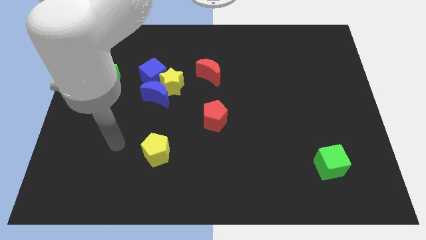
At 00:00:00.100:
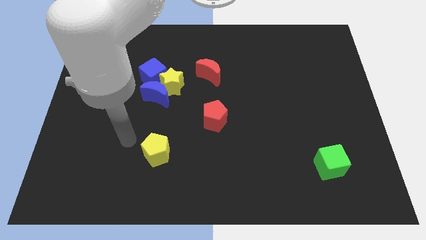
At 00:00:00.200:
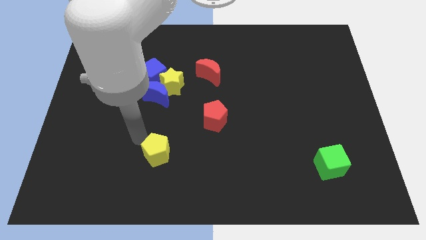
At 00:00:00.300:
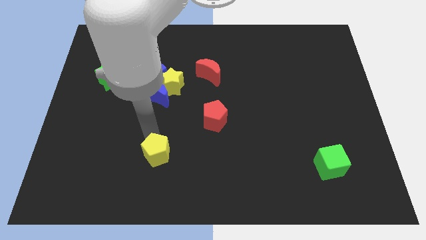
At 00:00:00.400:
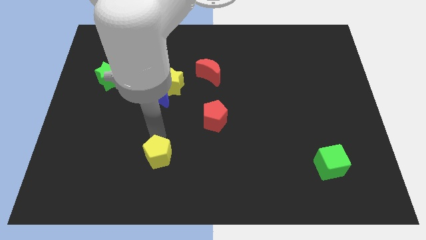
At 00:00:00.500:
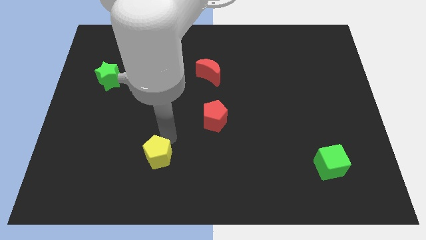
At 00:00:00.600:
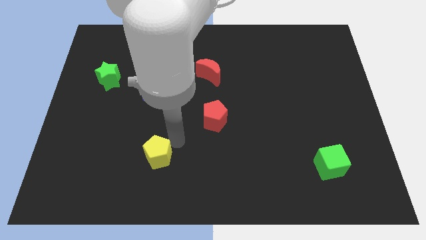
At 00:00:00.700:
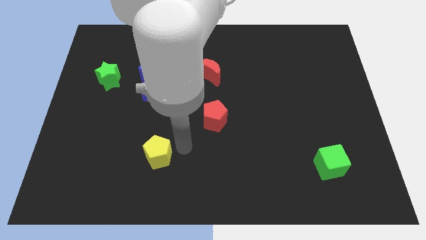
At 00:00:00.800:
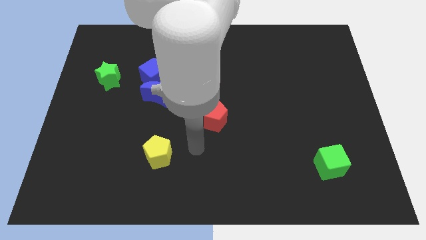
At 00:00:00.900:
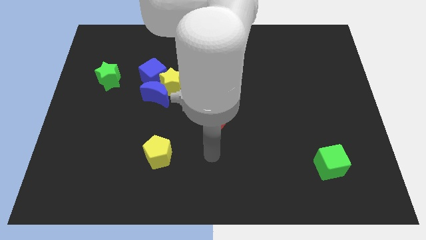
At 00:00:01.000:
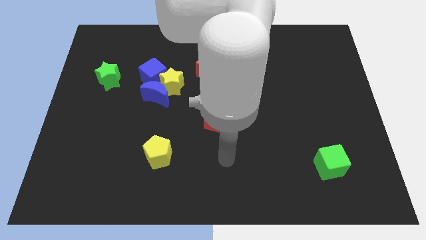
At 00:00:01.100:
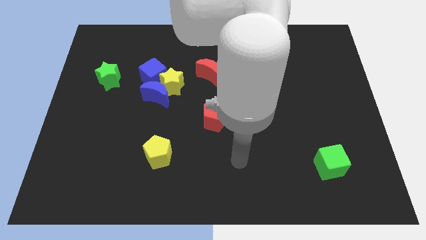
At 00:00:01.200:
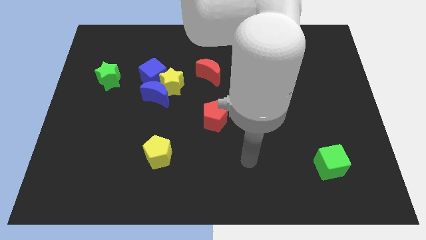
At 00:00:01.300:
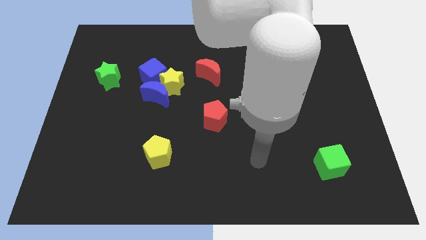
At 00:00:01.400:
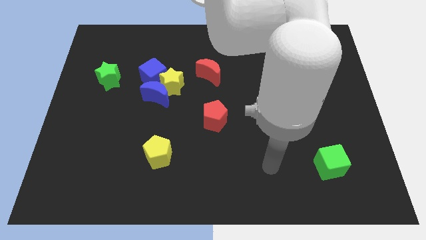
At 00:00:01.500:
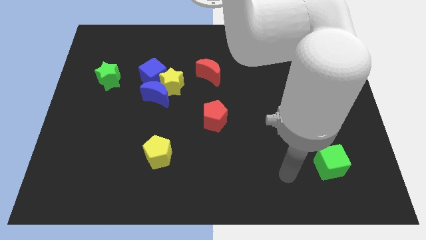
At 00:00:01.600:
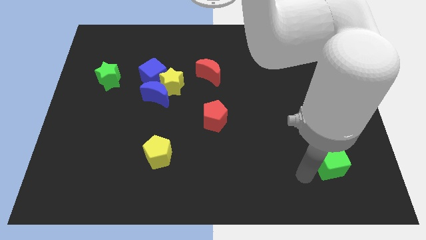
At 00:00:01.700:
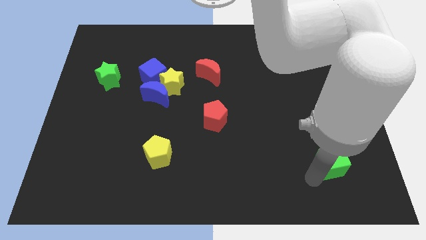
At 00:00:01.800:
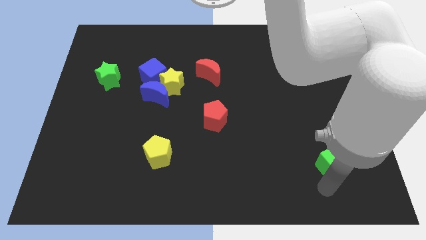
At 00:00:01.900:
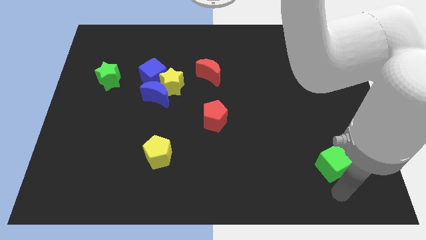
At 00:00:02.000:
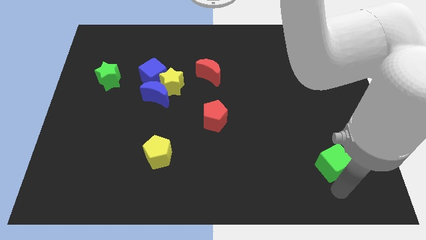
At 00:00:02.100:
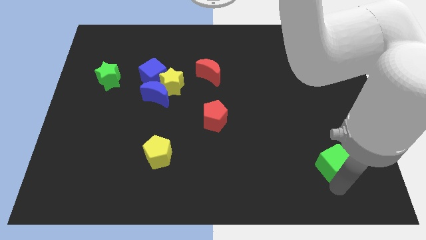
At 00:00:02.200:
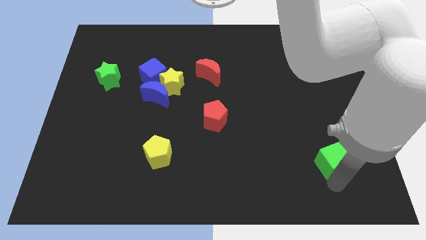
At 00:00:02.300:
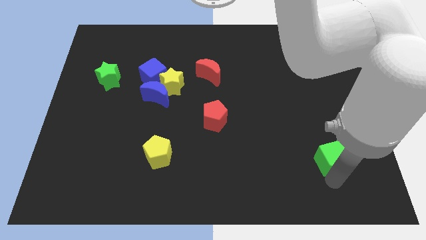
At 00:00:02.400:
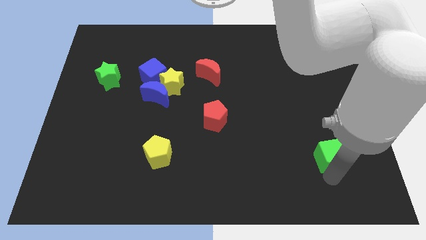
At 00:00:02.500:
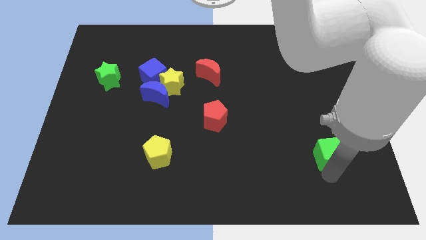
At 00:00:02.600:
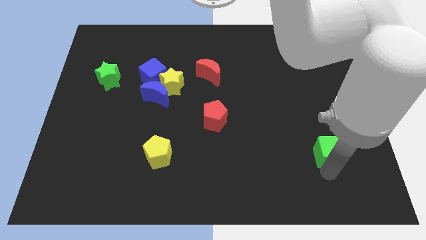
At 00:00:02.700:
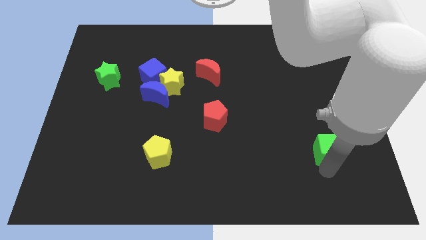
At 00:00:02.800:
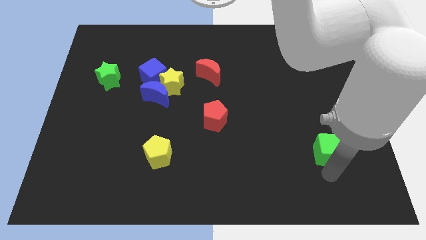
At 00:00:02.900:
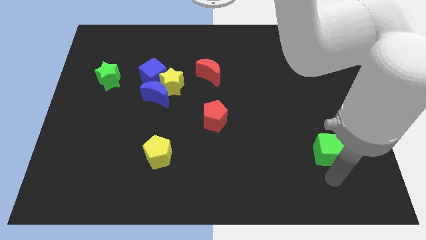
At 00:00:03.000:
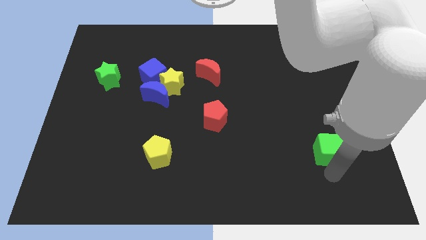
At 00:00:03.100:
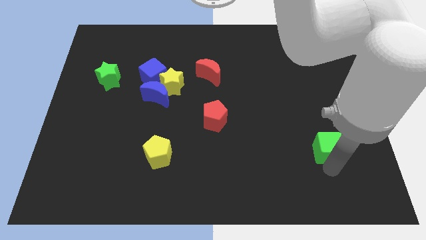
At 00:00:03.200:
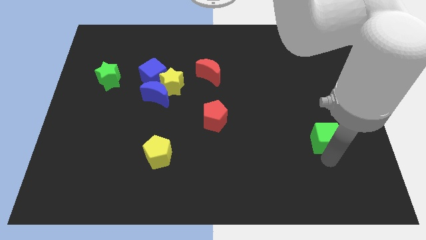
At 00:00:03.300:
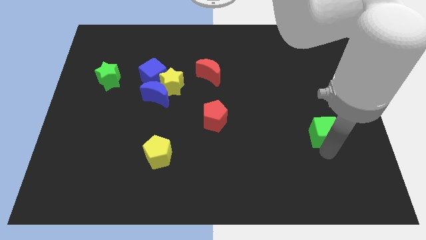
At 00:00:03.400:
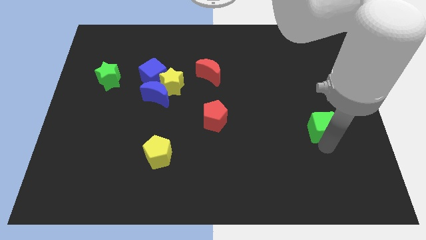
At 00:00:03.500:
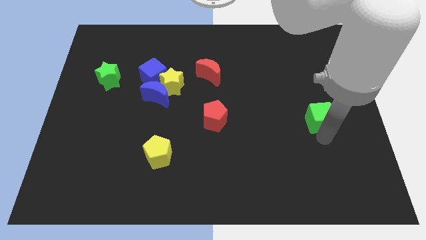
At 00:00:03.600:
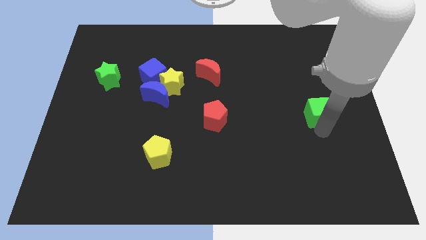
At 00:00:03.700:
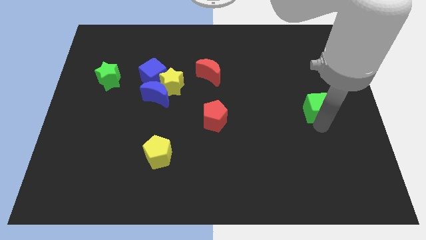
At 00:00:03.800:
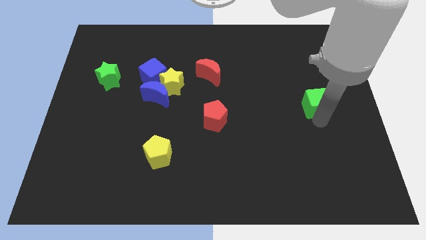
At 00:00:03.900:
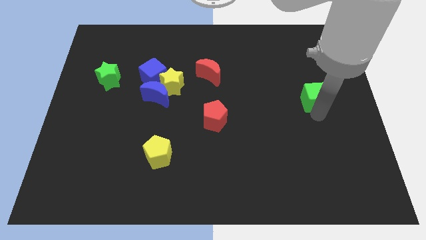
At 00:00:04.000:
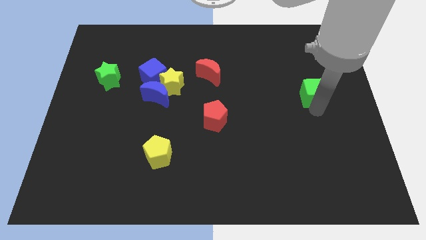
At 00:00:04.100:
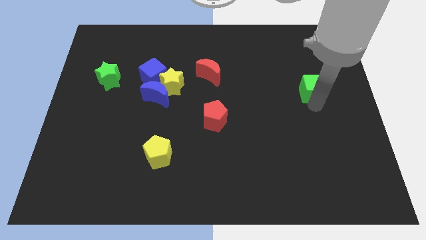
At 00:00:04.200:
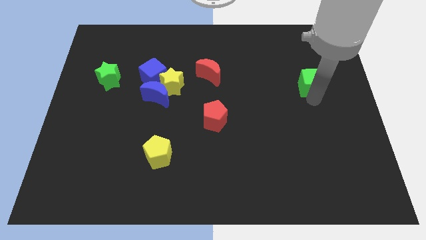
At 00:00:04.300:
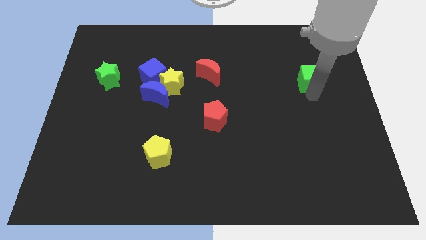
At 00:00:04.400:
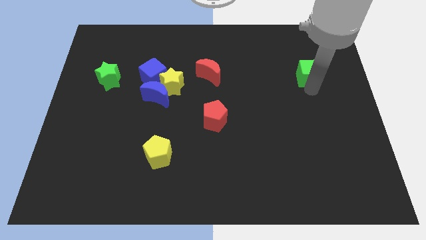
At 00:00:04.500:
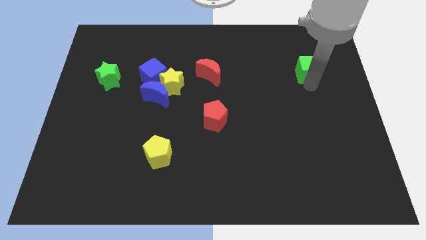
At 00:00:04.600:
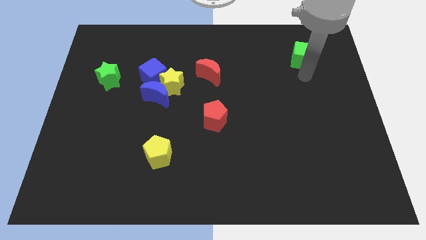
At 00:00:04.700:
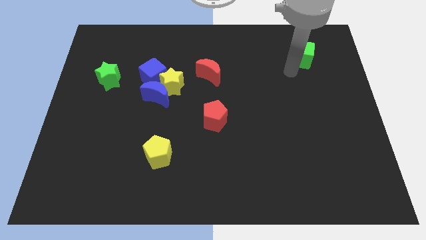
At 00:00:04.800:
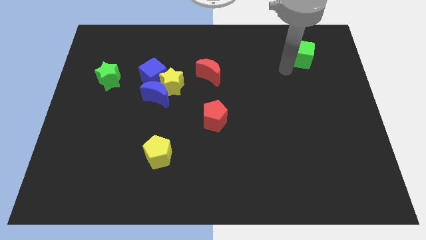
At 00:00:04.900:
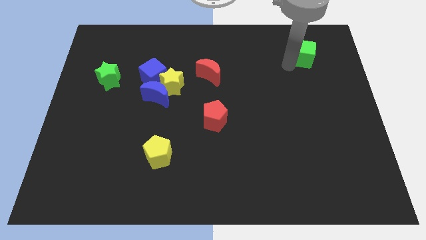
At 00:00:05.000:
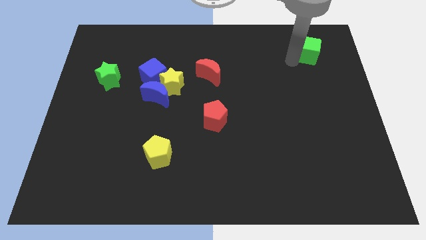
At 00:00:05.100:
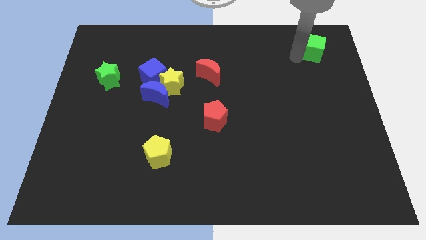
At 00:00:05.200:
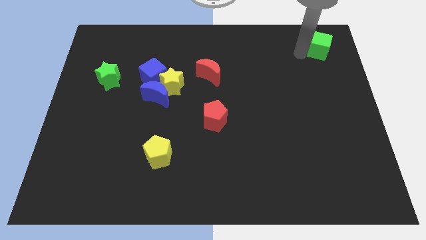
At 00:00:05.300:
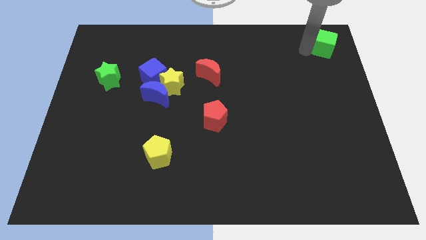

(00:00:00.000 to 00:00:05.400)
put the green cube to the upper right corner

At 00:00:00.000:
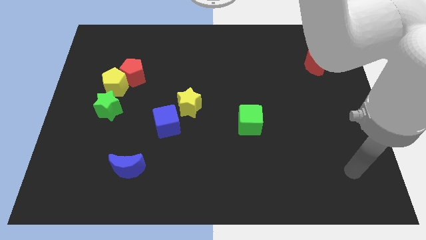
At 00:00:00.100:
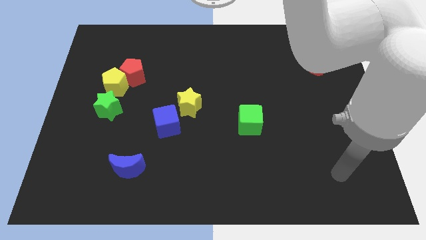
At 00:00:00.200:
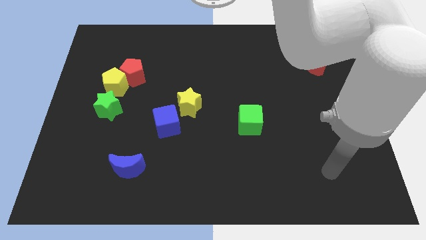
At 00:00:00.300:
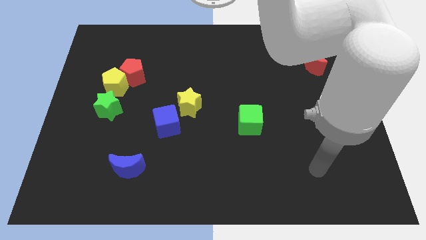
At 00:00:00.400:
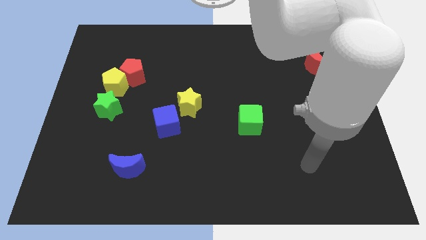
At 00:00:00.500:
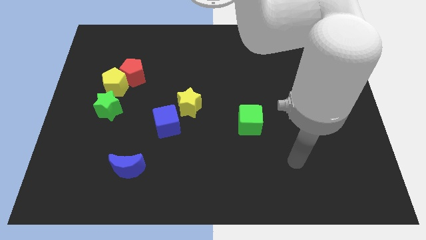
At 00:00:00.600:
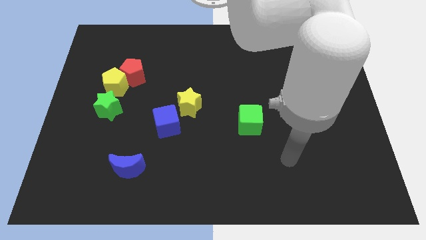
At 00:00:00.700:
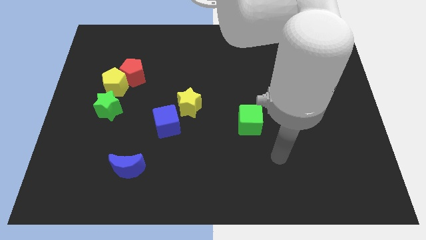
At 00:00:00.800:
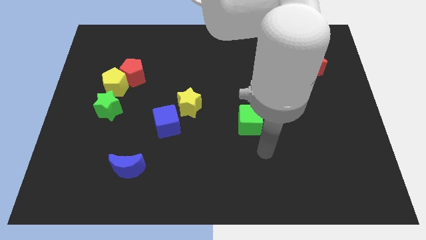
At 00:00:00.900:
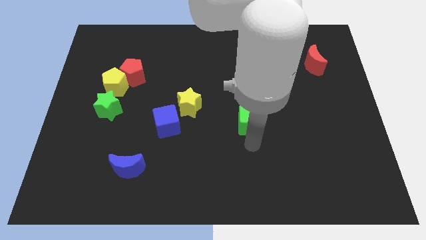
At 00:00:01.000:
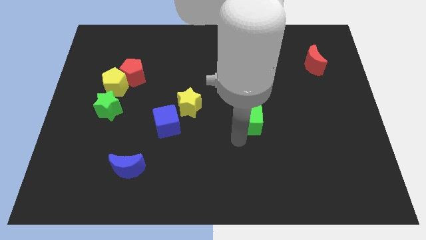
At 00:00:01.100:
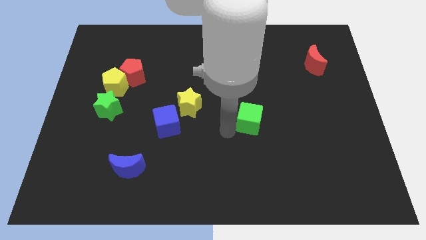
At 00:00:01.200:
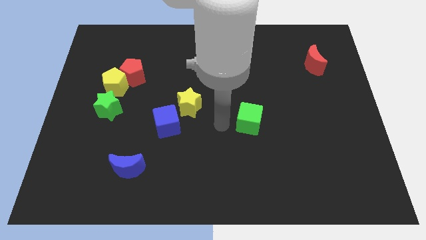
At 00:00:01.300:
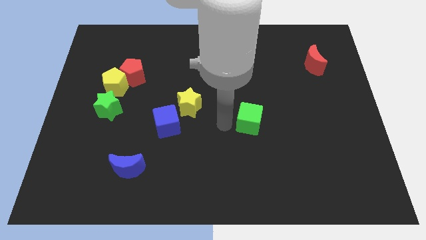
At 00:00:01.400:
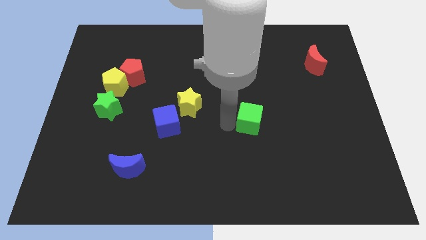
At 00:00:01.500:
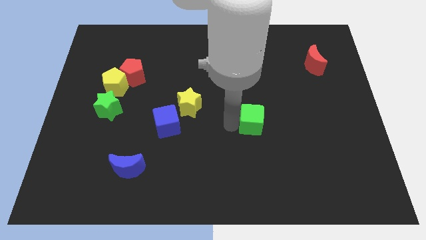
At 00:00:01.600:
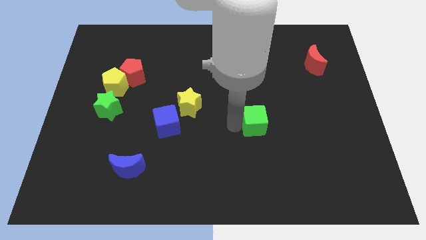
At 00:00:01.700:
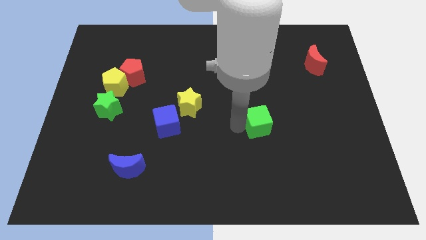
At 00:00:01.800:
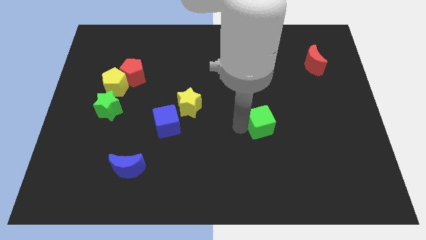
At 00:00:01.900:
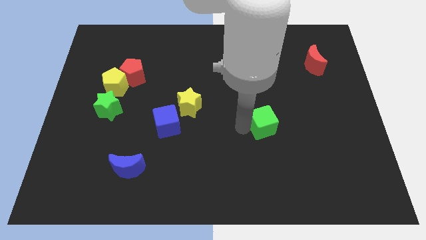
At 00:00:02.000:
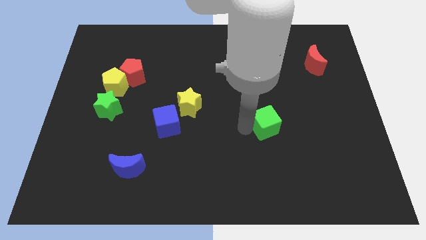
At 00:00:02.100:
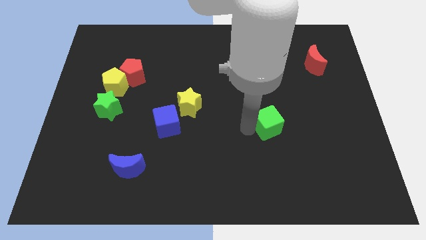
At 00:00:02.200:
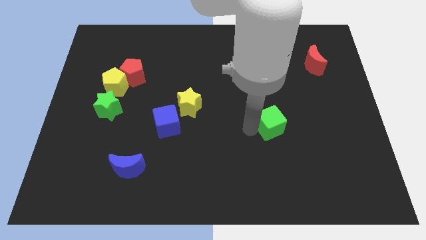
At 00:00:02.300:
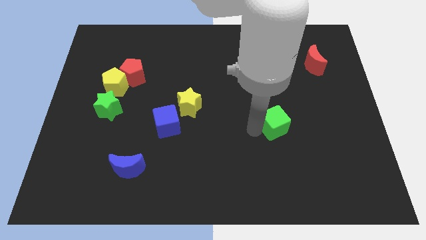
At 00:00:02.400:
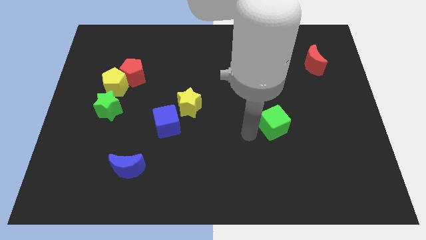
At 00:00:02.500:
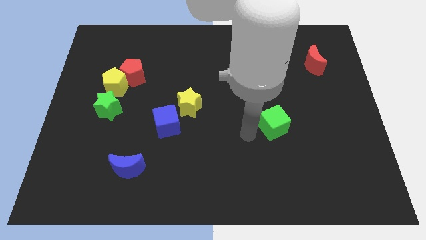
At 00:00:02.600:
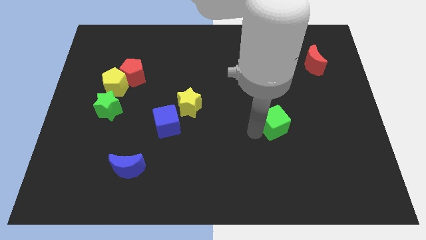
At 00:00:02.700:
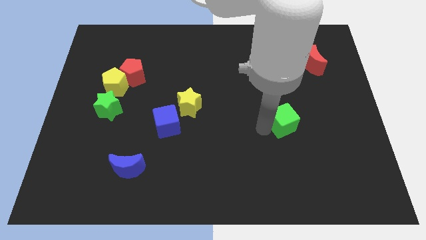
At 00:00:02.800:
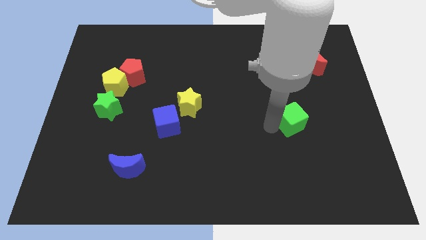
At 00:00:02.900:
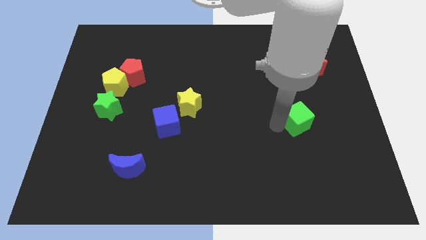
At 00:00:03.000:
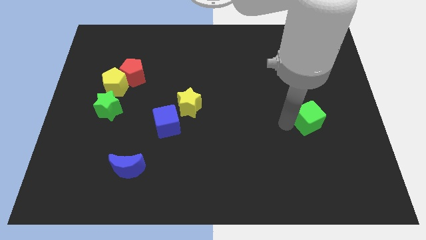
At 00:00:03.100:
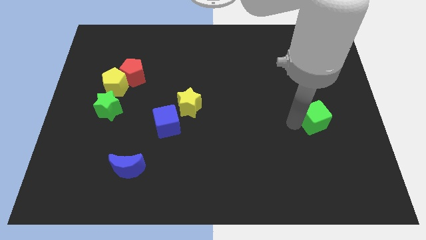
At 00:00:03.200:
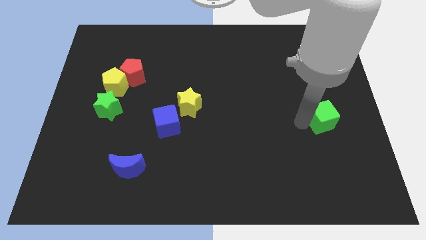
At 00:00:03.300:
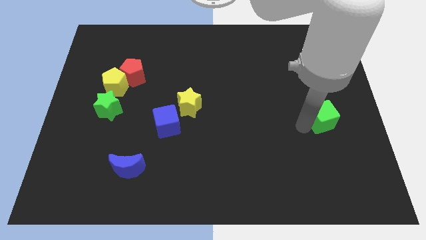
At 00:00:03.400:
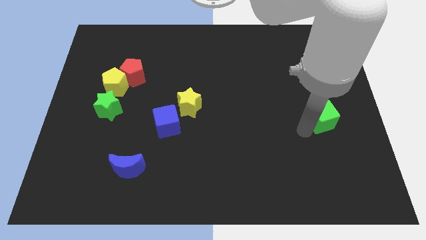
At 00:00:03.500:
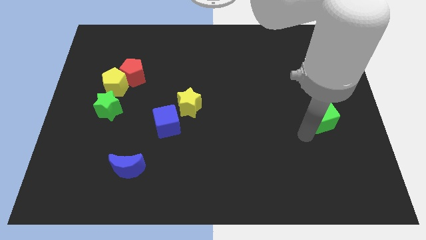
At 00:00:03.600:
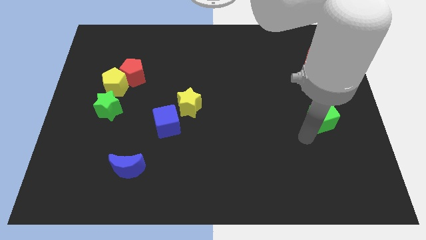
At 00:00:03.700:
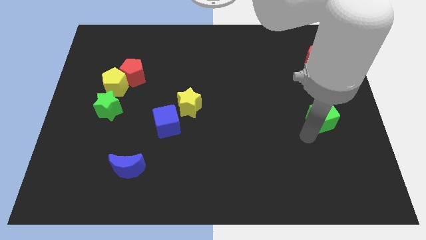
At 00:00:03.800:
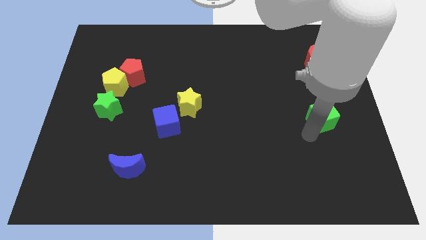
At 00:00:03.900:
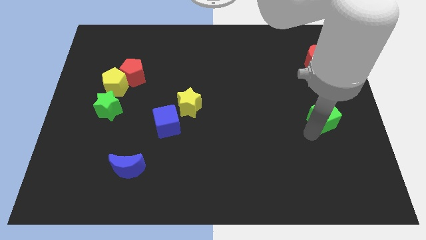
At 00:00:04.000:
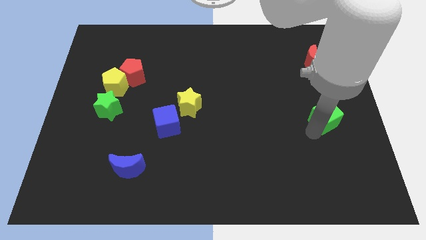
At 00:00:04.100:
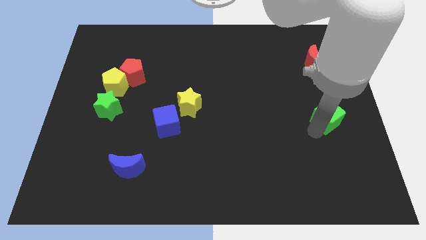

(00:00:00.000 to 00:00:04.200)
put the green cube to the right side of the board
